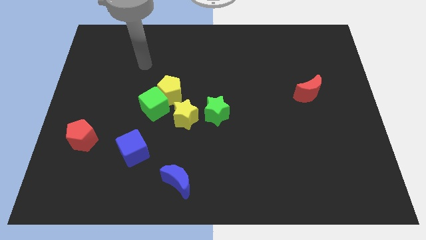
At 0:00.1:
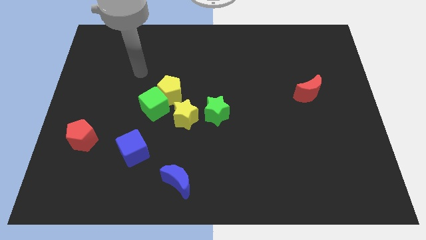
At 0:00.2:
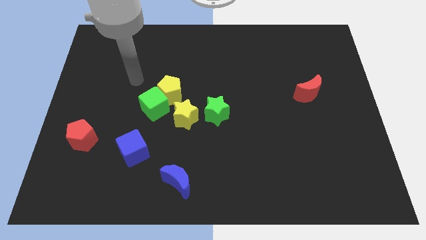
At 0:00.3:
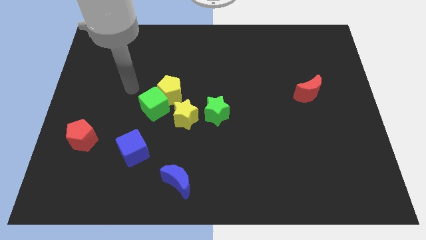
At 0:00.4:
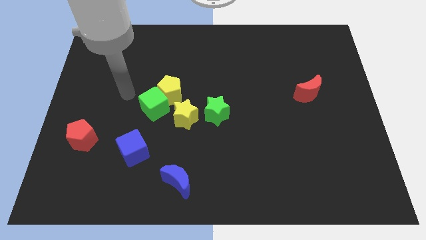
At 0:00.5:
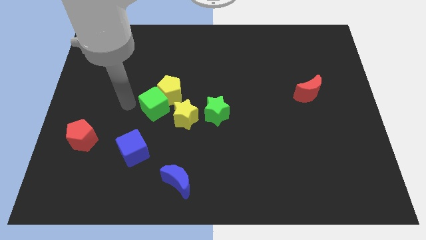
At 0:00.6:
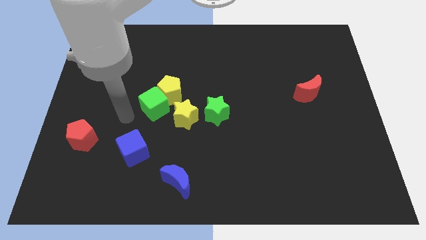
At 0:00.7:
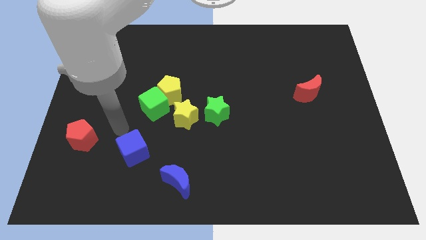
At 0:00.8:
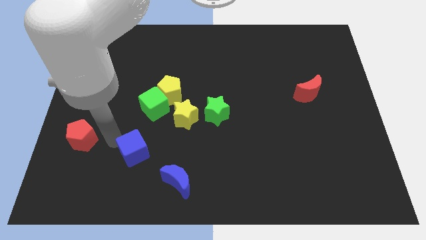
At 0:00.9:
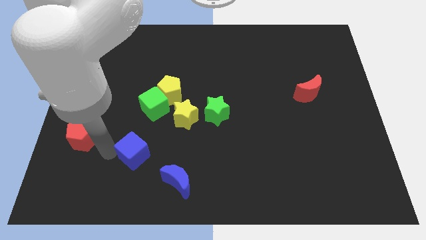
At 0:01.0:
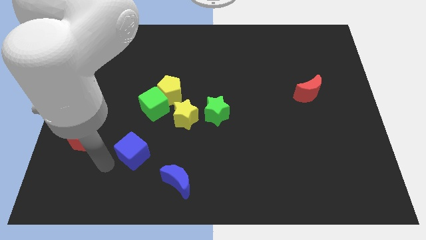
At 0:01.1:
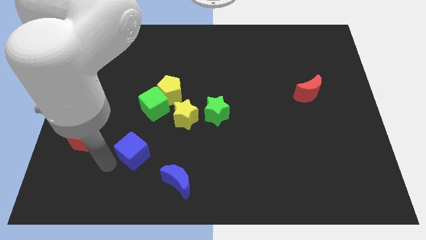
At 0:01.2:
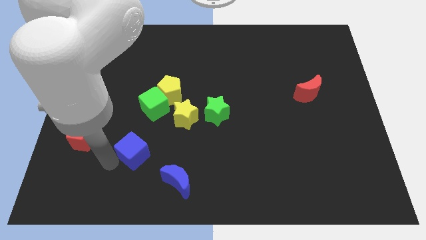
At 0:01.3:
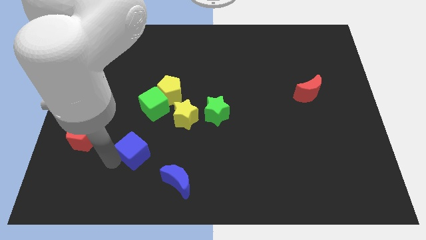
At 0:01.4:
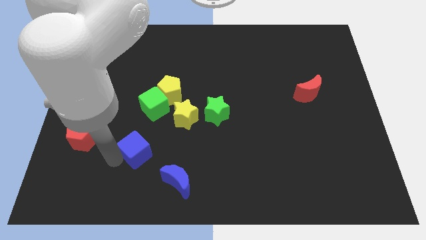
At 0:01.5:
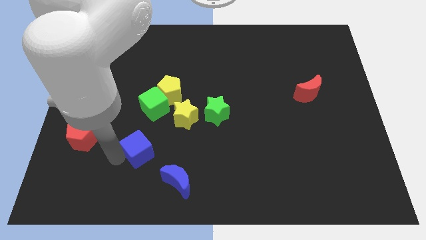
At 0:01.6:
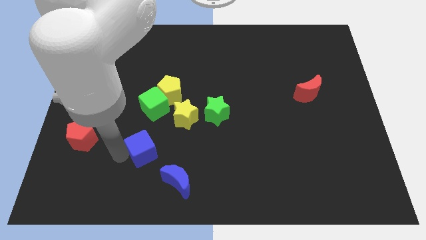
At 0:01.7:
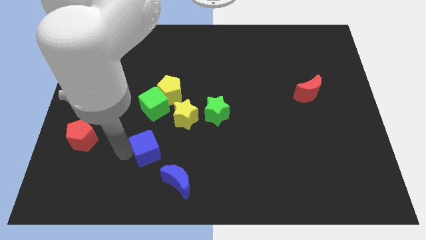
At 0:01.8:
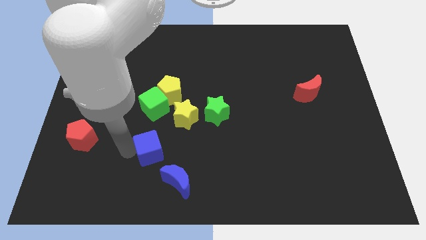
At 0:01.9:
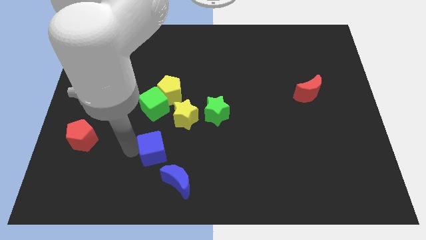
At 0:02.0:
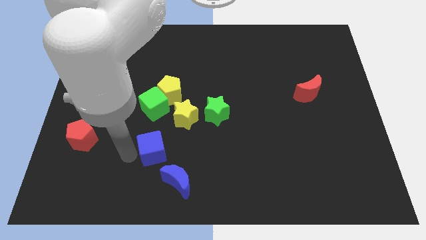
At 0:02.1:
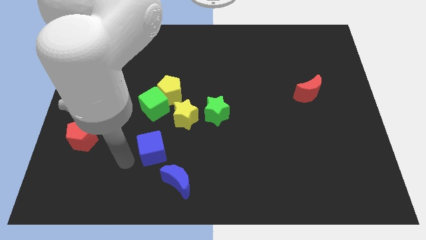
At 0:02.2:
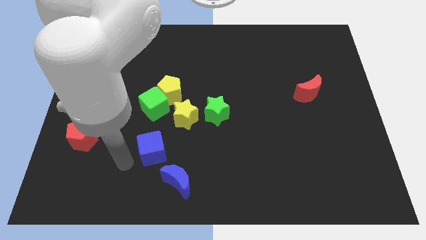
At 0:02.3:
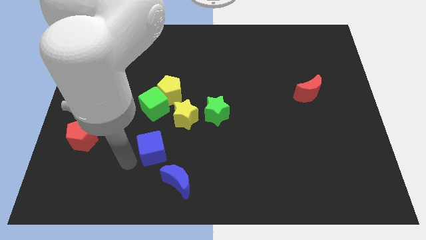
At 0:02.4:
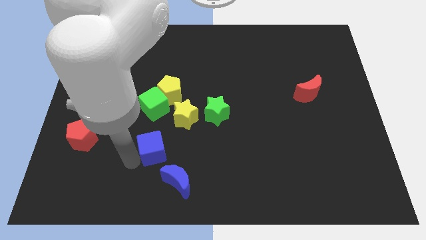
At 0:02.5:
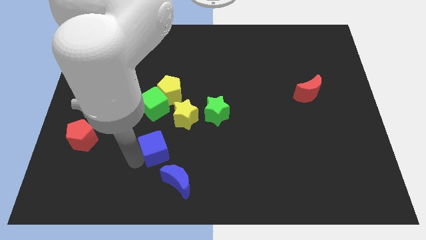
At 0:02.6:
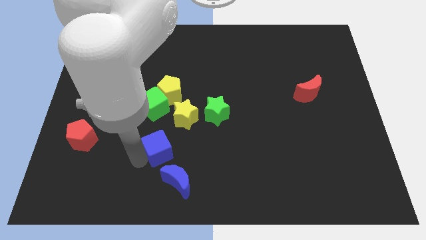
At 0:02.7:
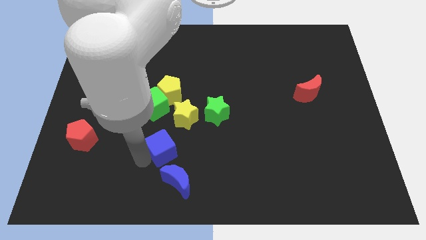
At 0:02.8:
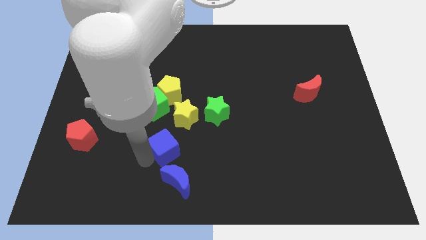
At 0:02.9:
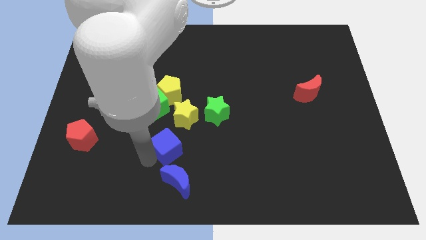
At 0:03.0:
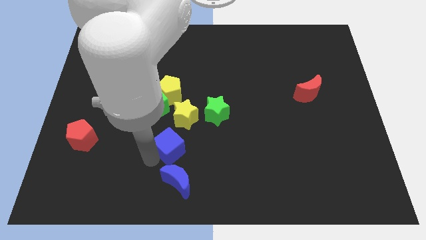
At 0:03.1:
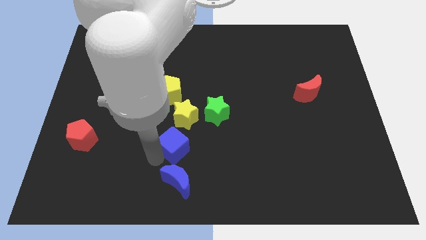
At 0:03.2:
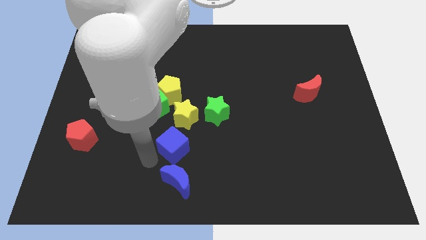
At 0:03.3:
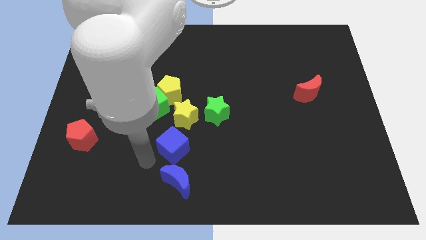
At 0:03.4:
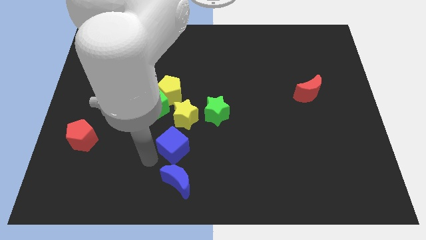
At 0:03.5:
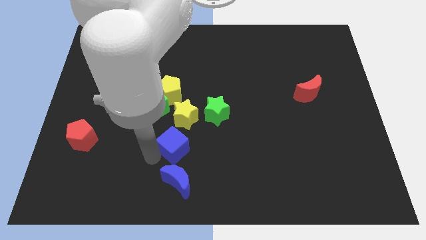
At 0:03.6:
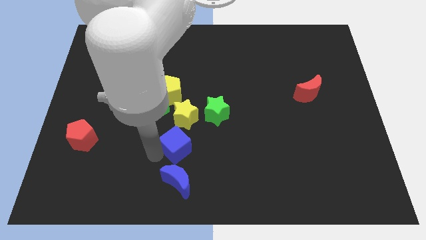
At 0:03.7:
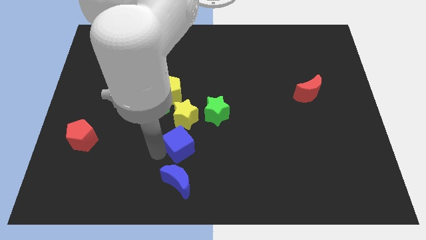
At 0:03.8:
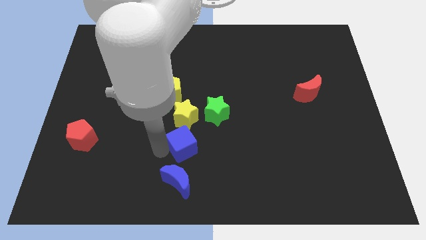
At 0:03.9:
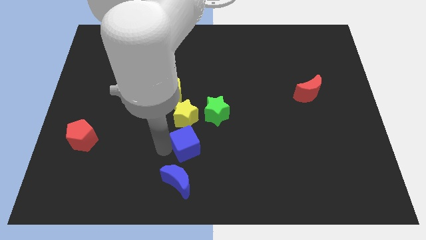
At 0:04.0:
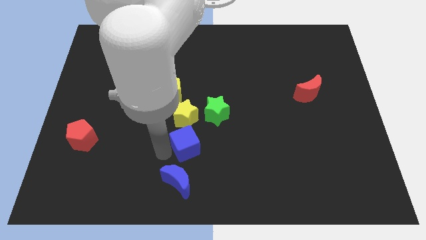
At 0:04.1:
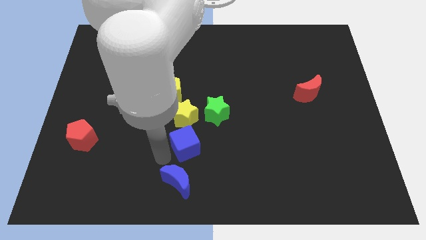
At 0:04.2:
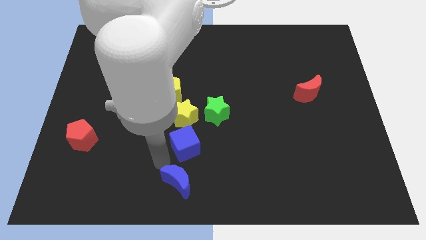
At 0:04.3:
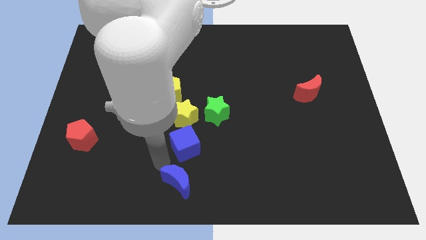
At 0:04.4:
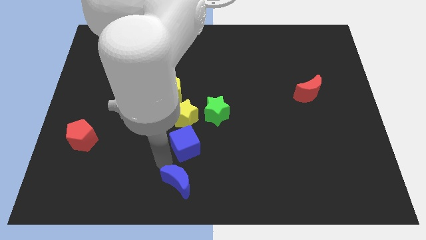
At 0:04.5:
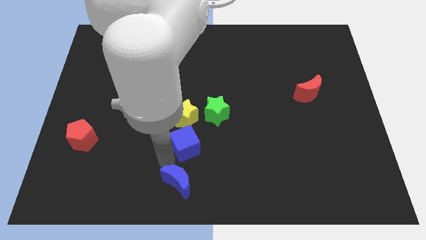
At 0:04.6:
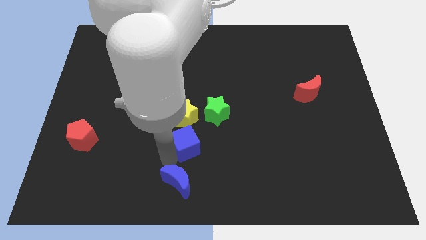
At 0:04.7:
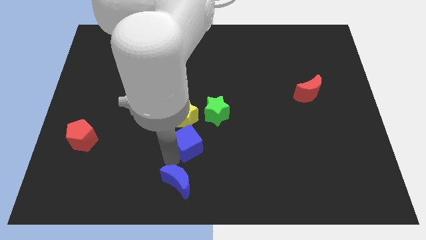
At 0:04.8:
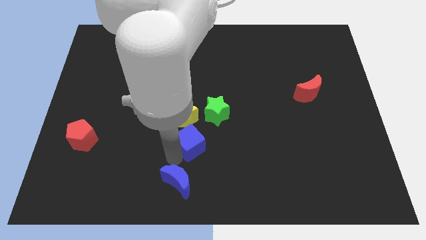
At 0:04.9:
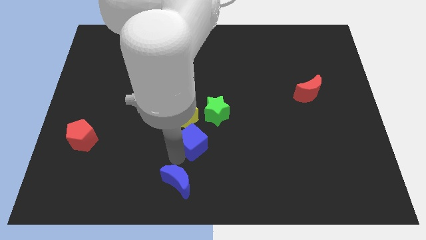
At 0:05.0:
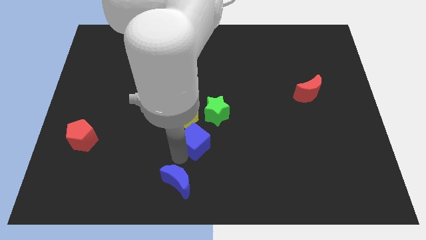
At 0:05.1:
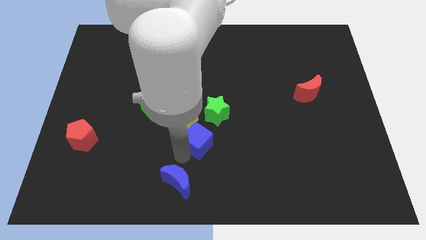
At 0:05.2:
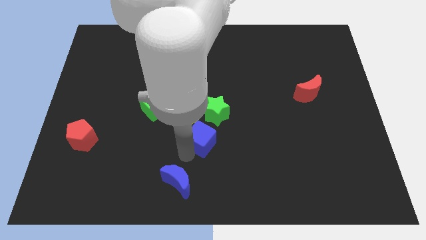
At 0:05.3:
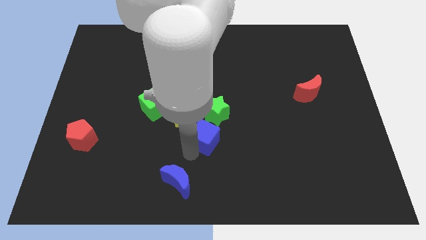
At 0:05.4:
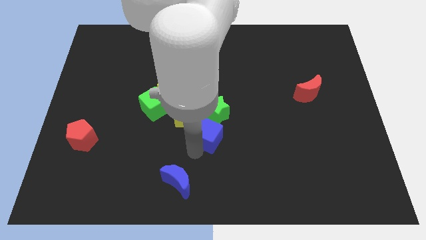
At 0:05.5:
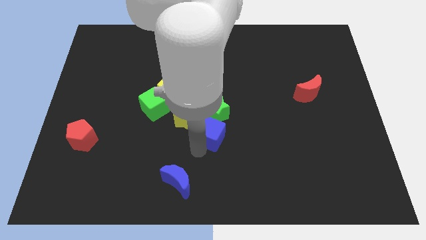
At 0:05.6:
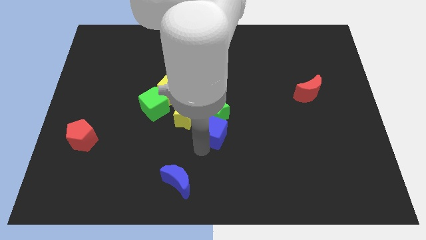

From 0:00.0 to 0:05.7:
put the blue cube close to the green star

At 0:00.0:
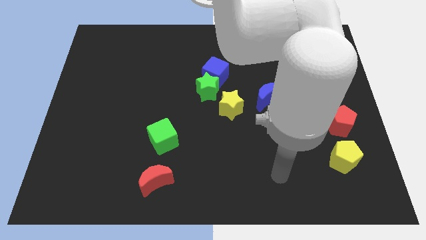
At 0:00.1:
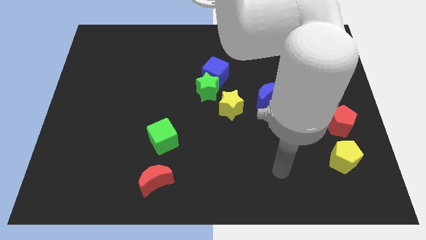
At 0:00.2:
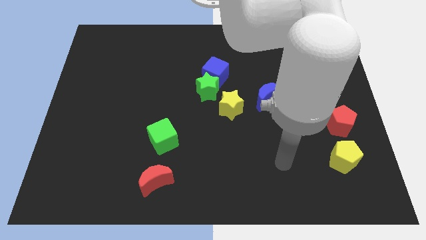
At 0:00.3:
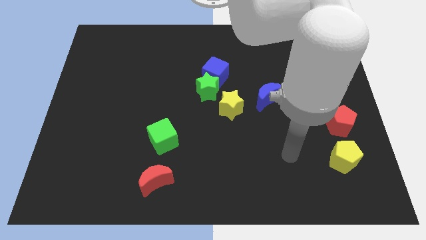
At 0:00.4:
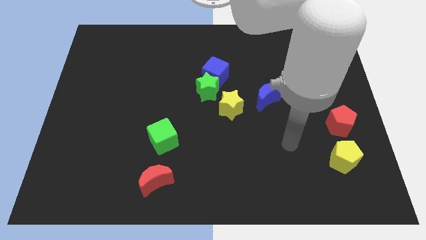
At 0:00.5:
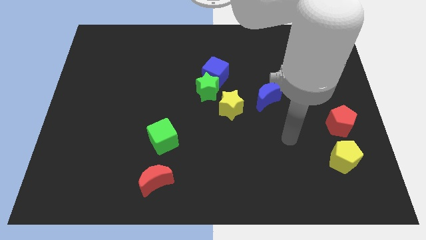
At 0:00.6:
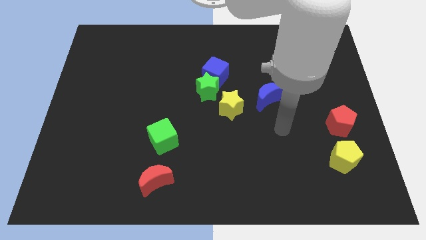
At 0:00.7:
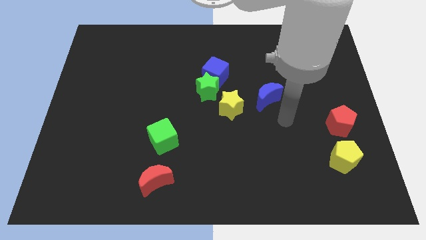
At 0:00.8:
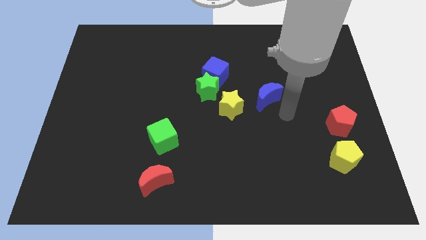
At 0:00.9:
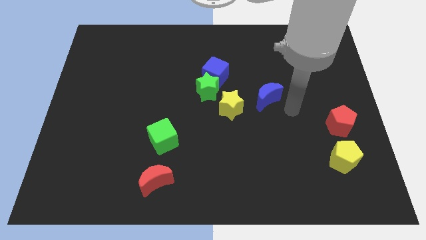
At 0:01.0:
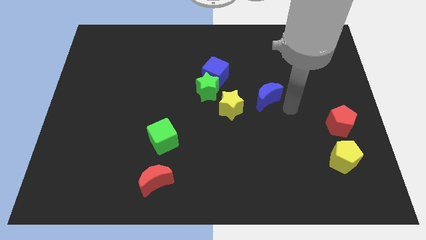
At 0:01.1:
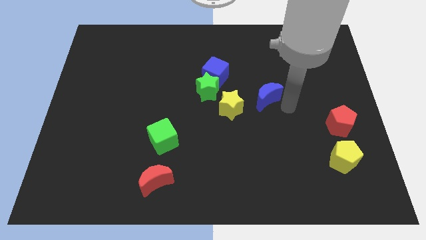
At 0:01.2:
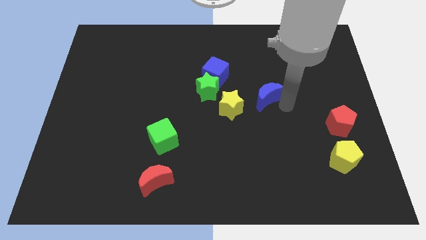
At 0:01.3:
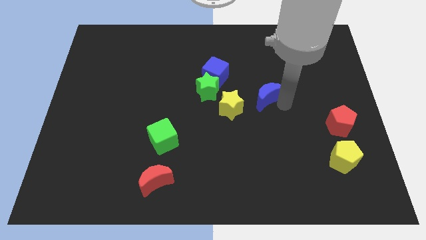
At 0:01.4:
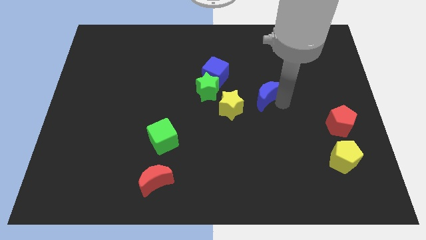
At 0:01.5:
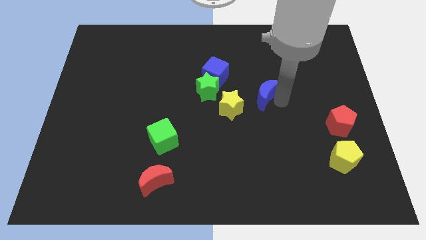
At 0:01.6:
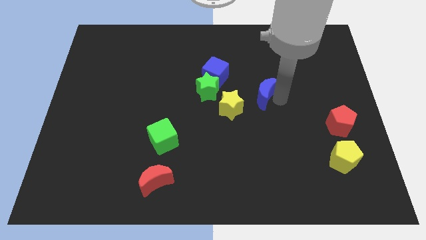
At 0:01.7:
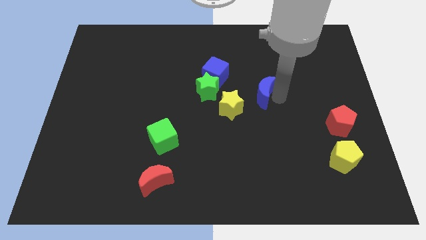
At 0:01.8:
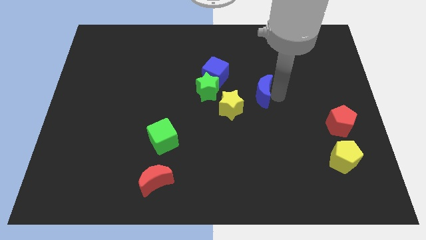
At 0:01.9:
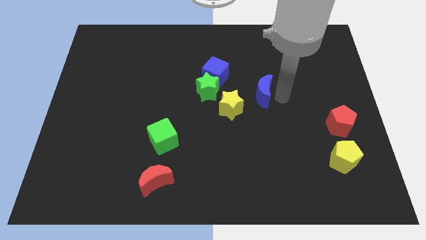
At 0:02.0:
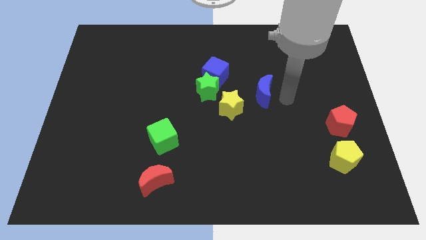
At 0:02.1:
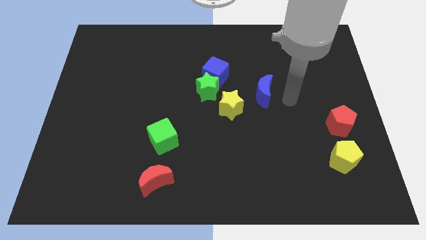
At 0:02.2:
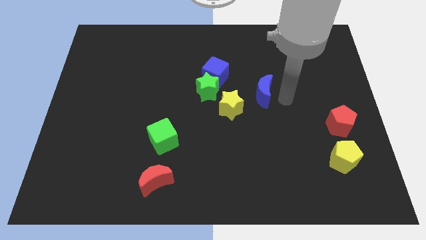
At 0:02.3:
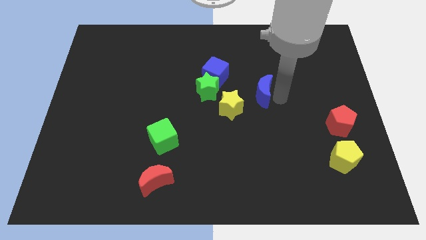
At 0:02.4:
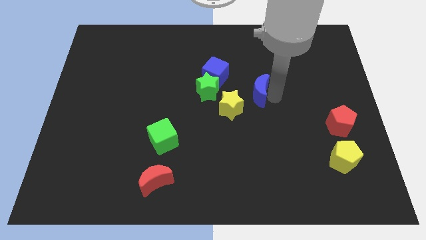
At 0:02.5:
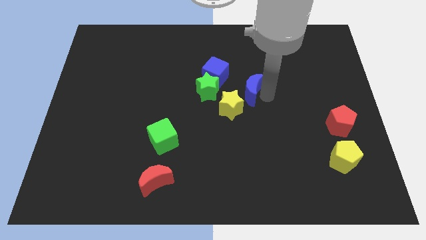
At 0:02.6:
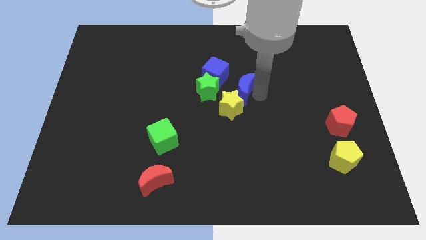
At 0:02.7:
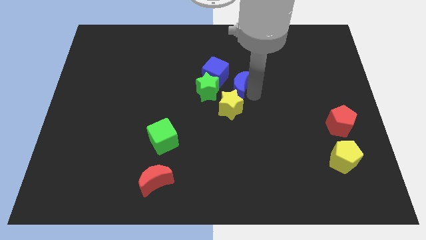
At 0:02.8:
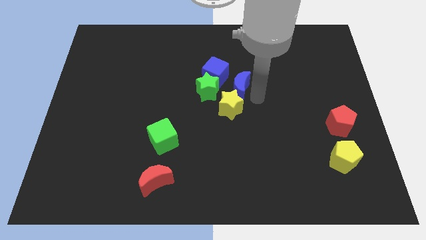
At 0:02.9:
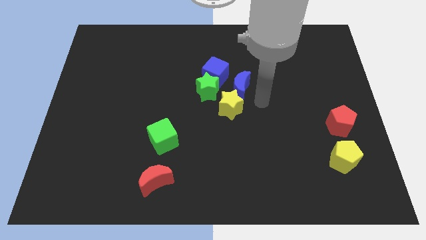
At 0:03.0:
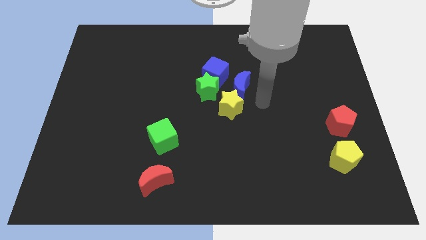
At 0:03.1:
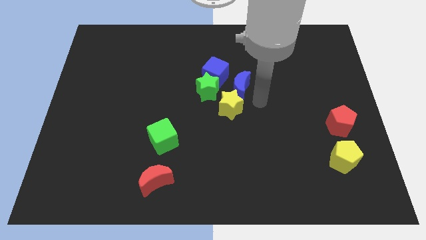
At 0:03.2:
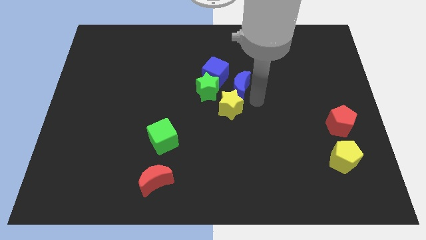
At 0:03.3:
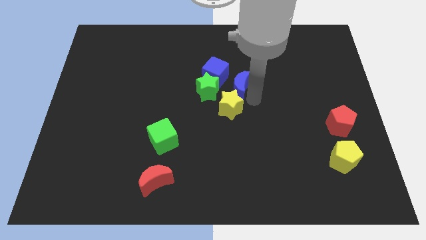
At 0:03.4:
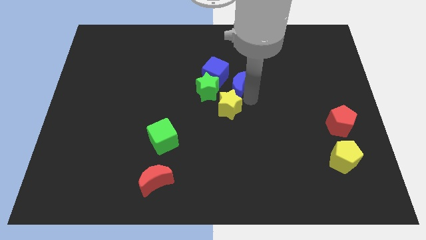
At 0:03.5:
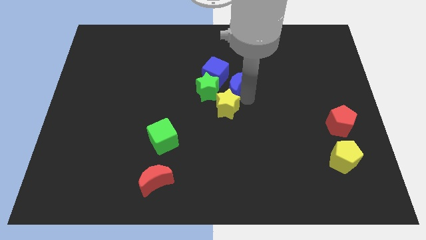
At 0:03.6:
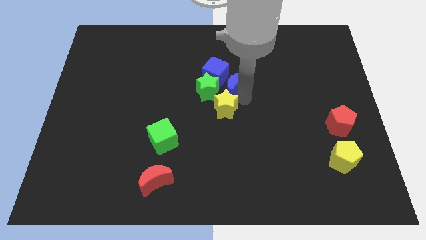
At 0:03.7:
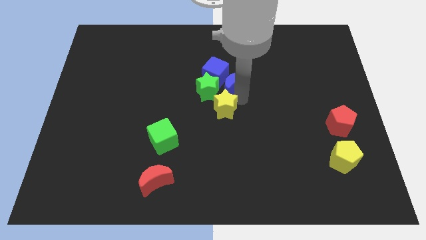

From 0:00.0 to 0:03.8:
put the blue moon towards the blue cube
